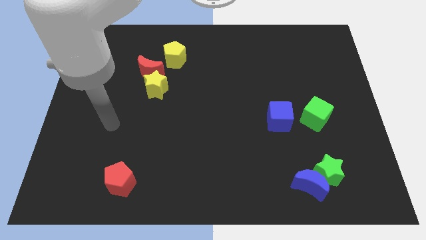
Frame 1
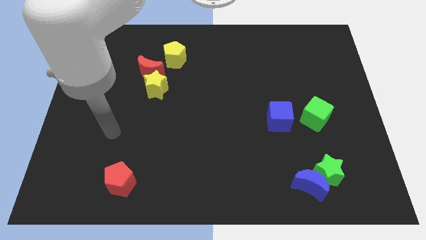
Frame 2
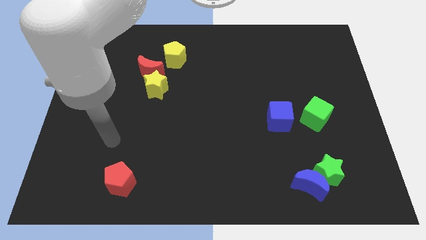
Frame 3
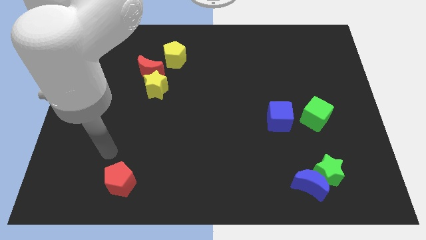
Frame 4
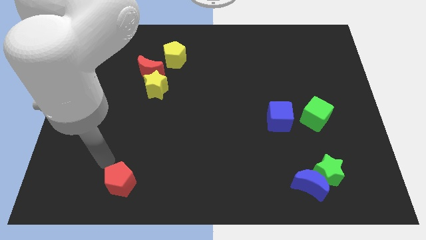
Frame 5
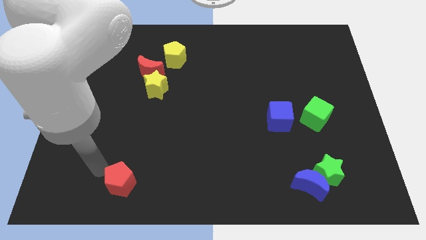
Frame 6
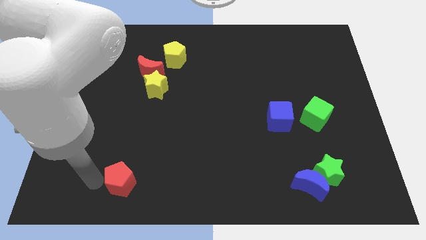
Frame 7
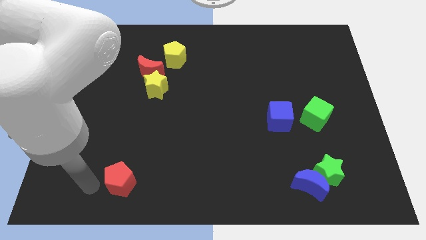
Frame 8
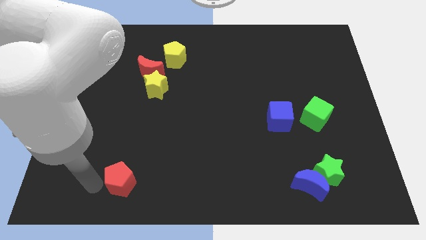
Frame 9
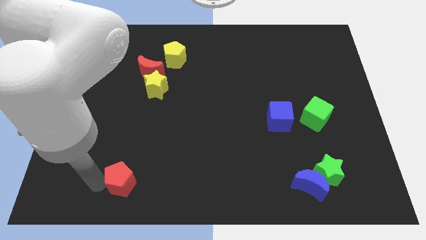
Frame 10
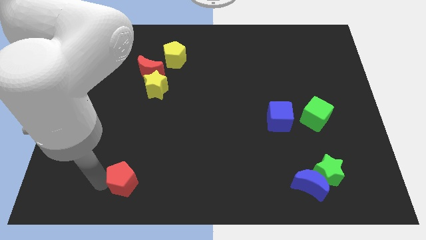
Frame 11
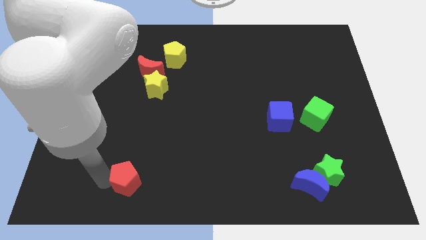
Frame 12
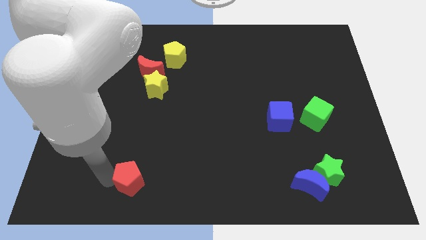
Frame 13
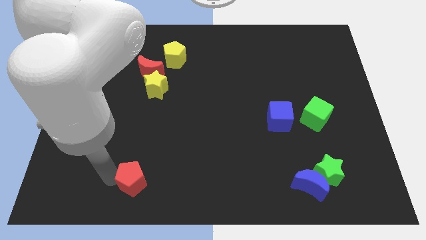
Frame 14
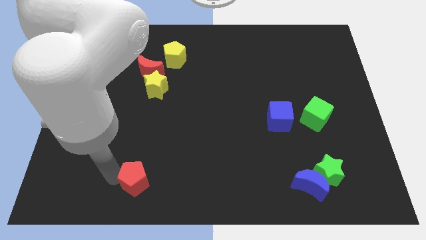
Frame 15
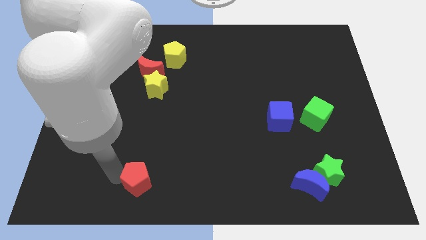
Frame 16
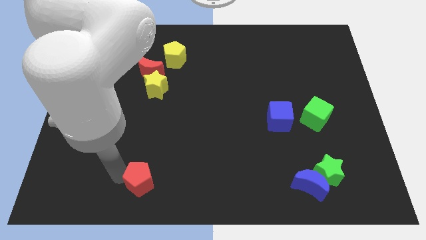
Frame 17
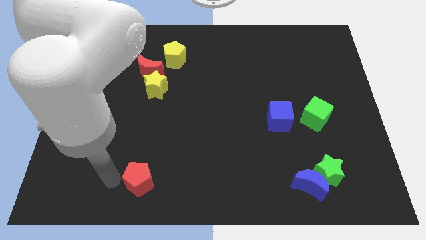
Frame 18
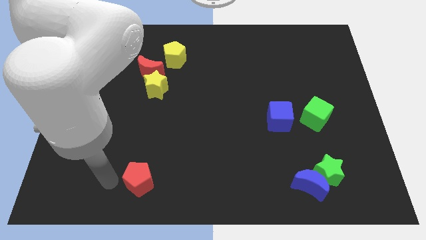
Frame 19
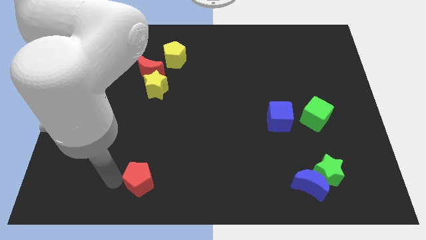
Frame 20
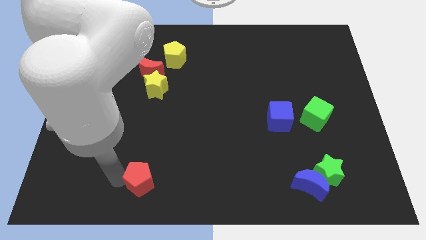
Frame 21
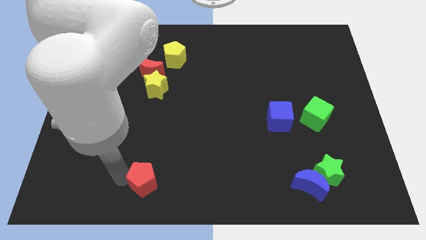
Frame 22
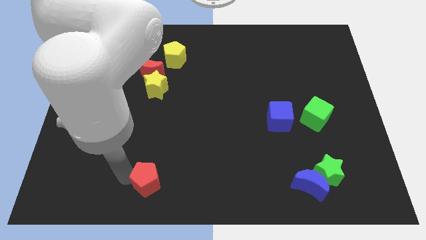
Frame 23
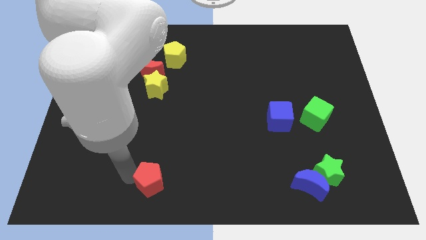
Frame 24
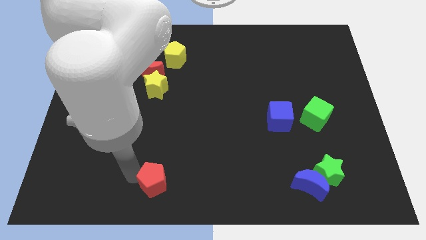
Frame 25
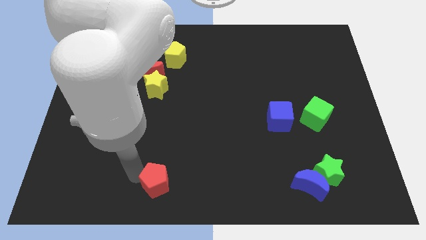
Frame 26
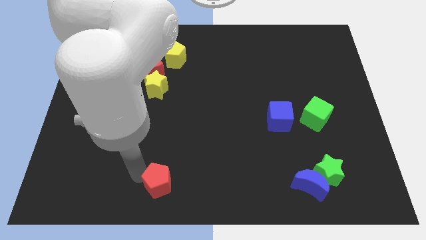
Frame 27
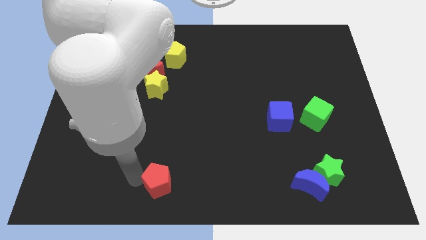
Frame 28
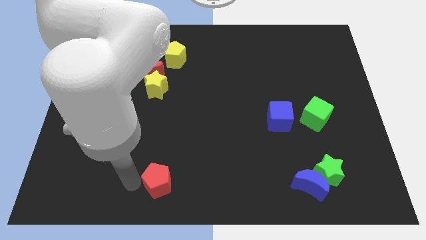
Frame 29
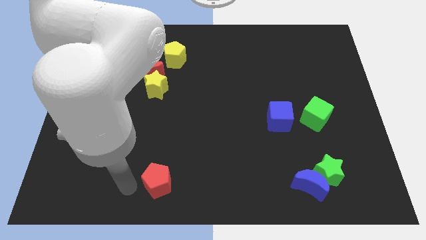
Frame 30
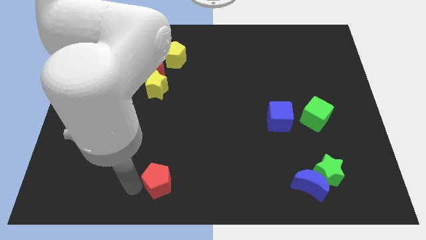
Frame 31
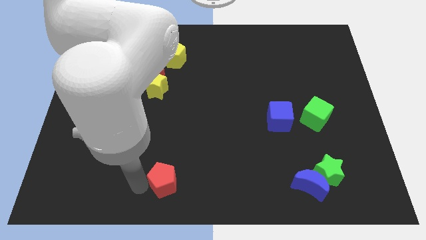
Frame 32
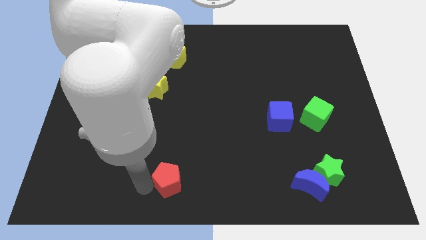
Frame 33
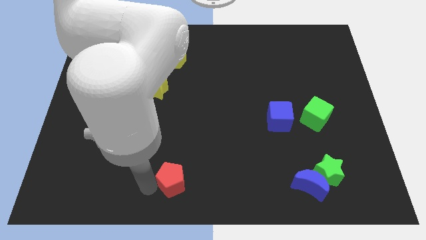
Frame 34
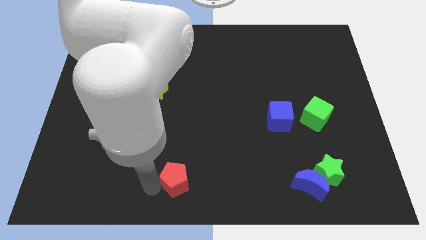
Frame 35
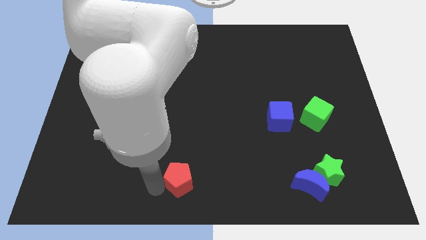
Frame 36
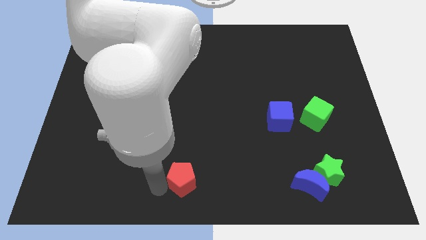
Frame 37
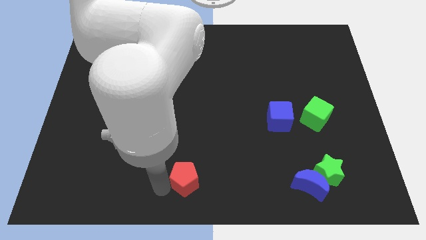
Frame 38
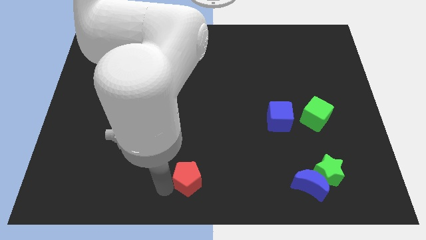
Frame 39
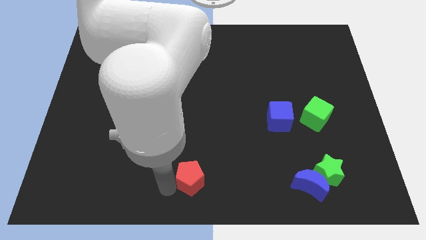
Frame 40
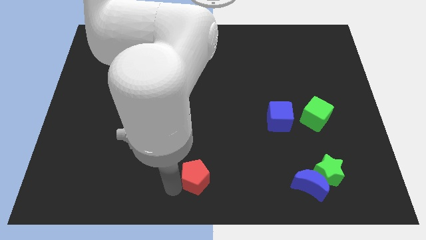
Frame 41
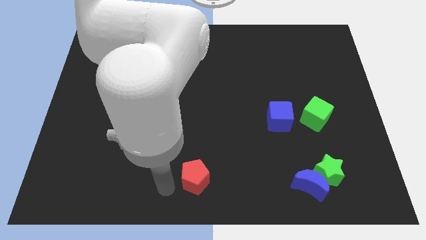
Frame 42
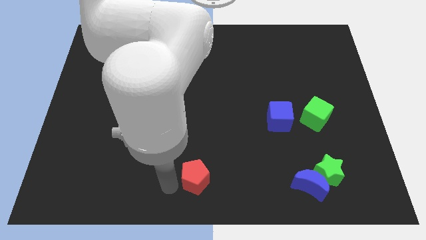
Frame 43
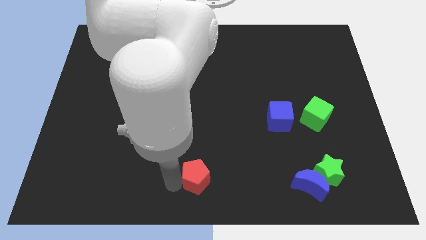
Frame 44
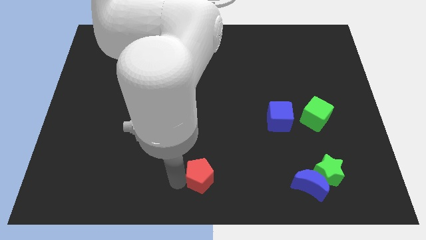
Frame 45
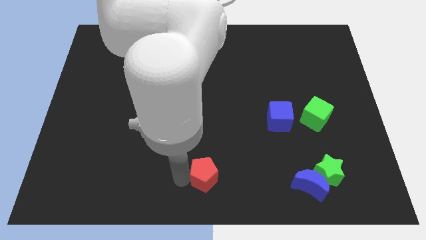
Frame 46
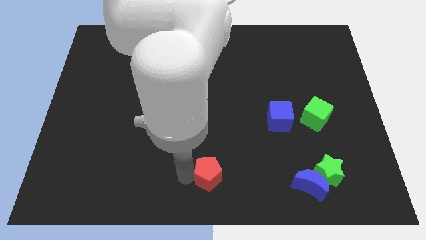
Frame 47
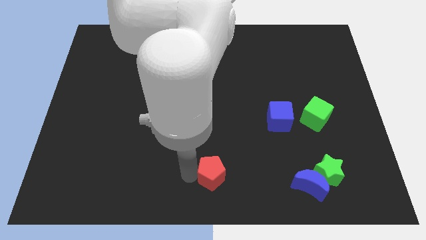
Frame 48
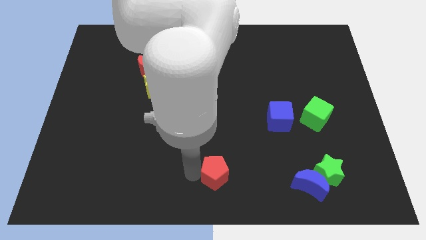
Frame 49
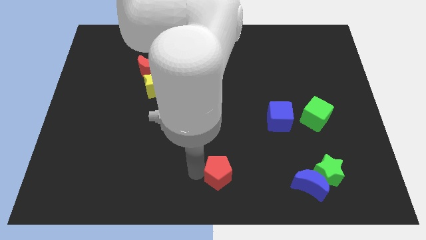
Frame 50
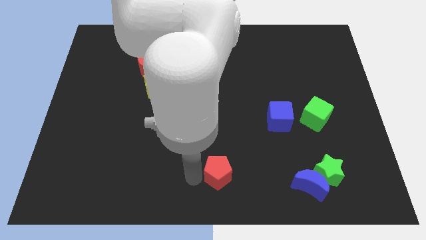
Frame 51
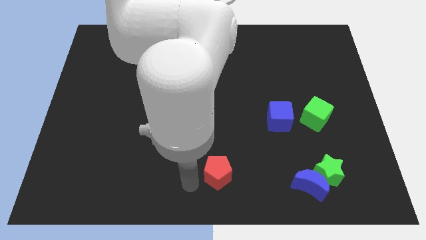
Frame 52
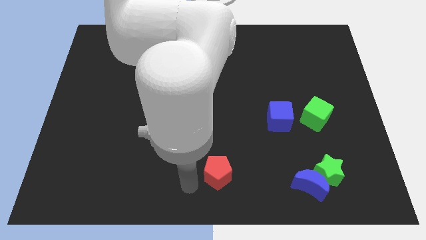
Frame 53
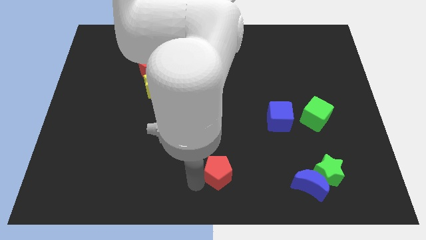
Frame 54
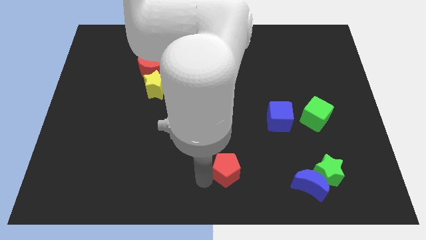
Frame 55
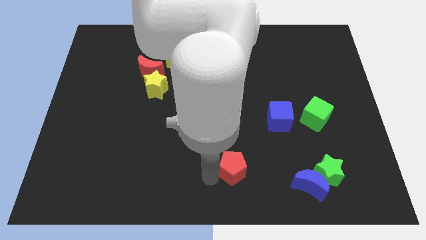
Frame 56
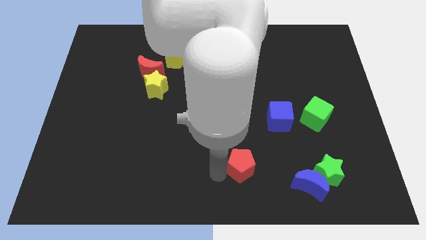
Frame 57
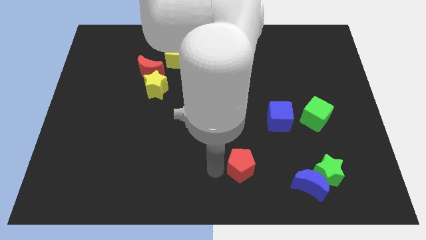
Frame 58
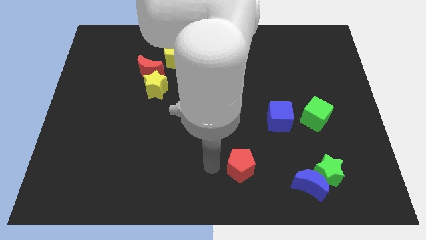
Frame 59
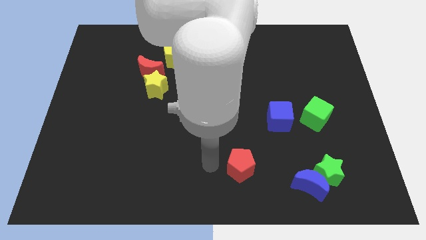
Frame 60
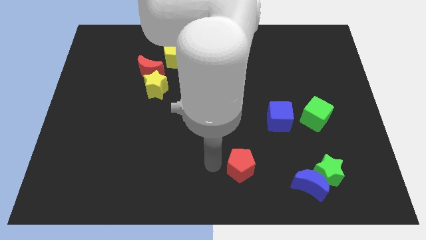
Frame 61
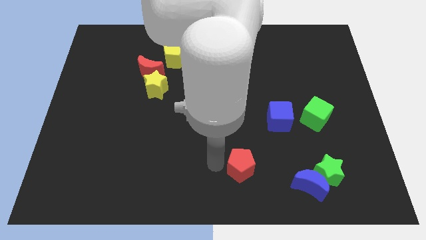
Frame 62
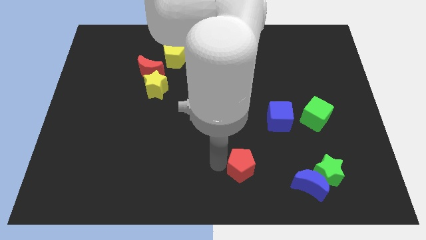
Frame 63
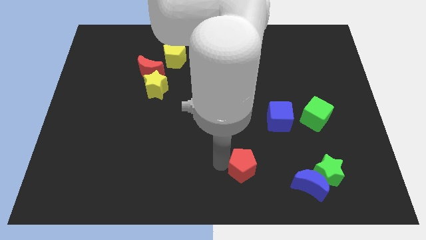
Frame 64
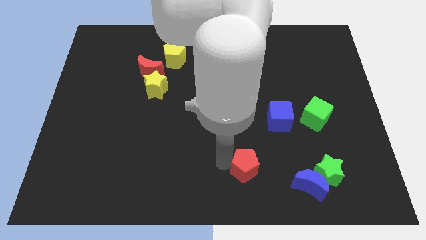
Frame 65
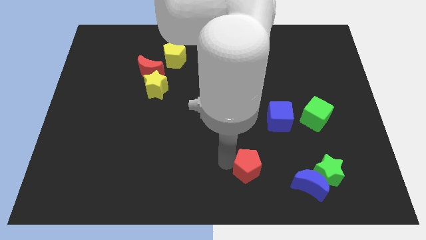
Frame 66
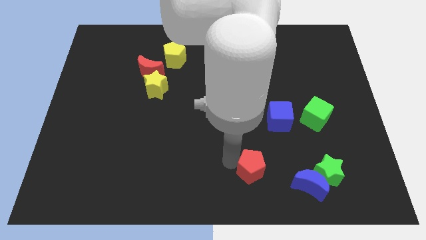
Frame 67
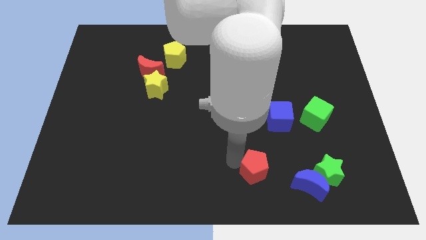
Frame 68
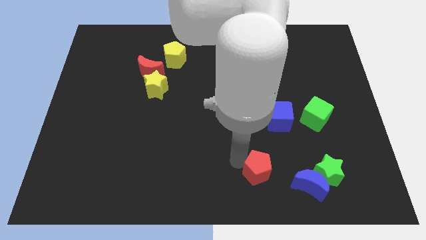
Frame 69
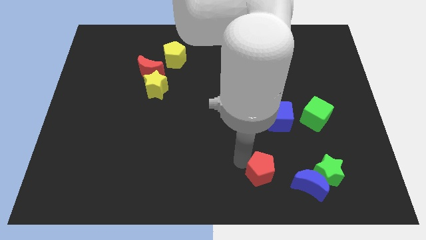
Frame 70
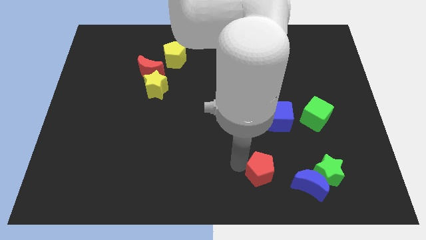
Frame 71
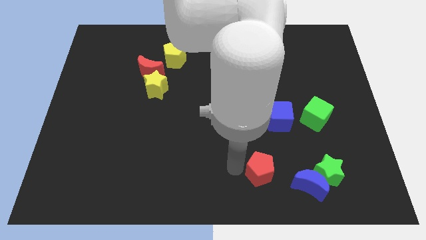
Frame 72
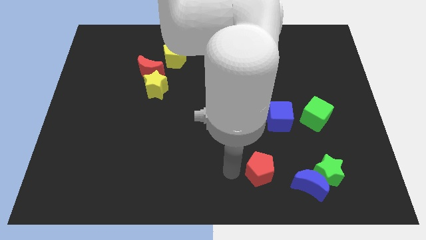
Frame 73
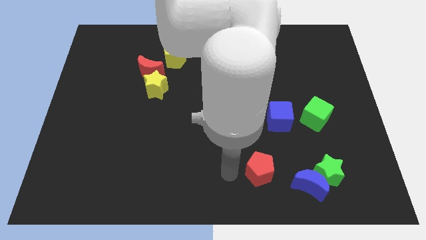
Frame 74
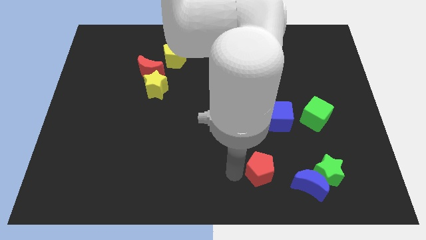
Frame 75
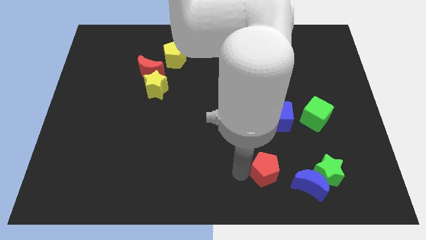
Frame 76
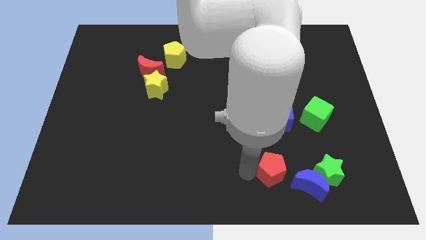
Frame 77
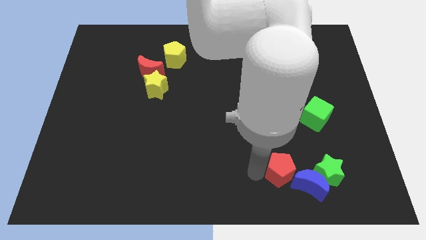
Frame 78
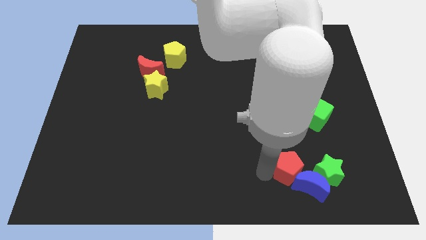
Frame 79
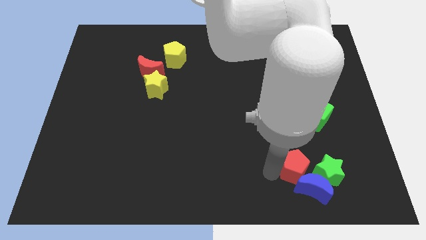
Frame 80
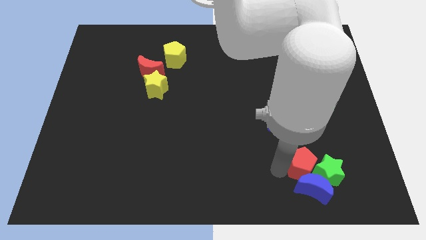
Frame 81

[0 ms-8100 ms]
move the red pentagon to the green star
